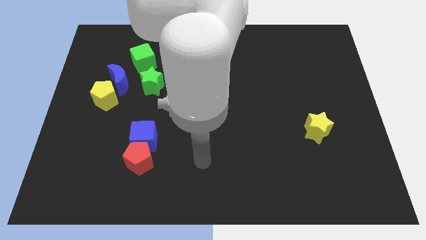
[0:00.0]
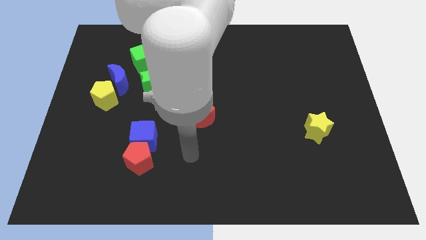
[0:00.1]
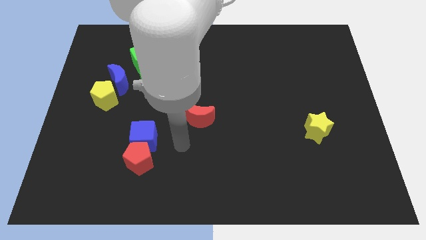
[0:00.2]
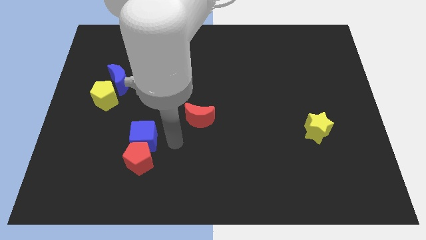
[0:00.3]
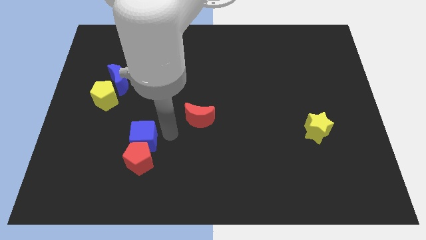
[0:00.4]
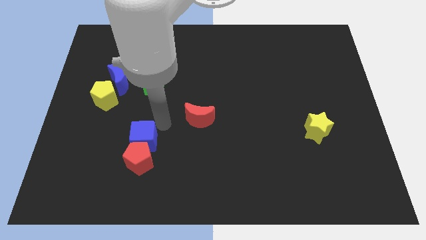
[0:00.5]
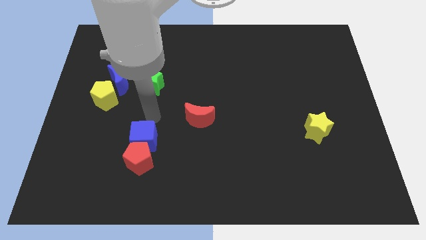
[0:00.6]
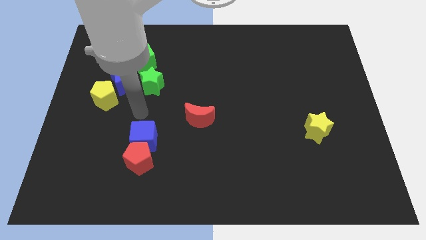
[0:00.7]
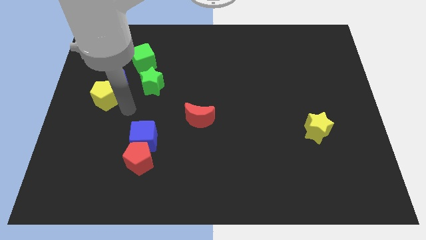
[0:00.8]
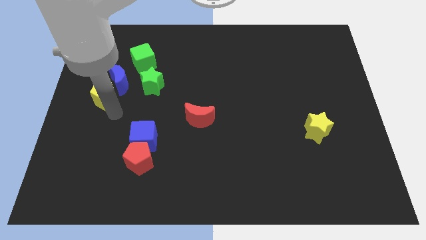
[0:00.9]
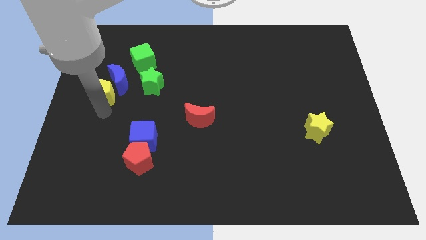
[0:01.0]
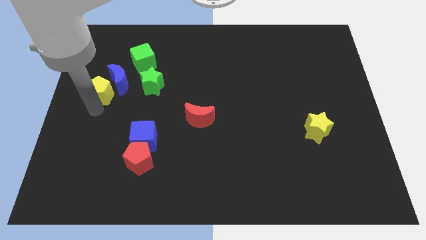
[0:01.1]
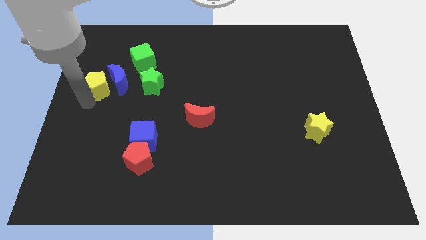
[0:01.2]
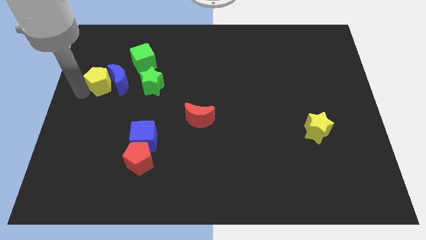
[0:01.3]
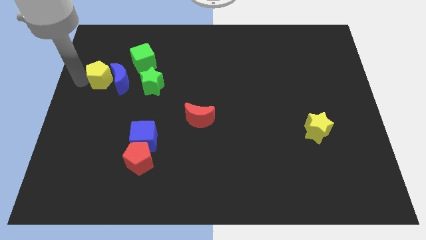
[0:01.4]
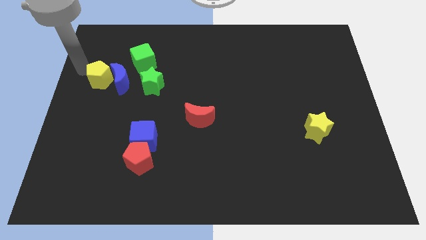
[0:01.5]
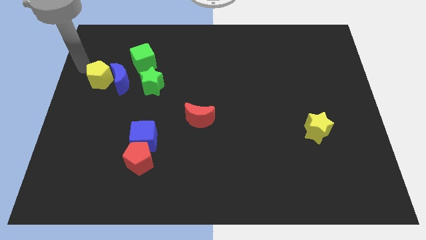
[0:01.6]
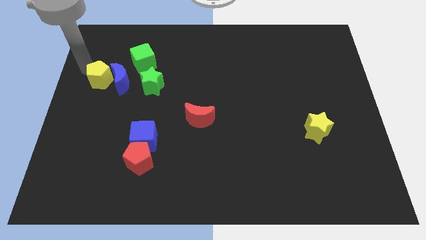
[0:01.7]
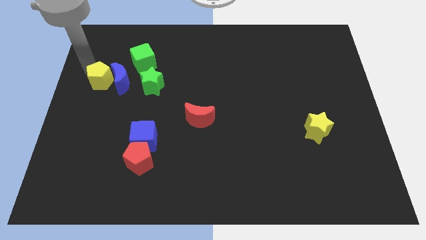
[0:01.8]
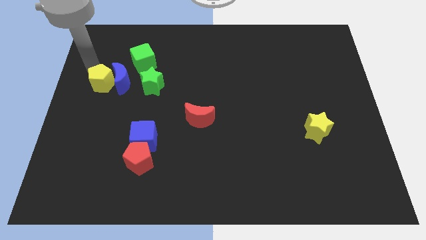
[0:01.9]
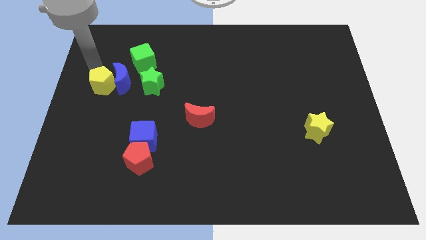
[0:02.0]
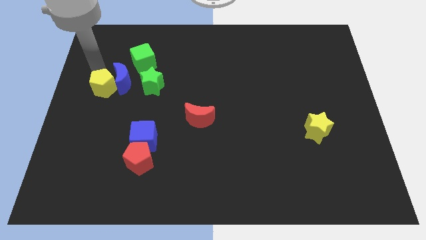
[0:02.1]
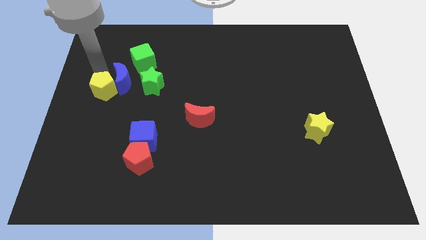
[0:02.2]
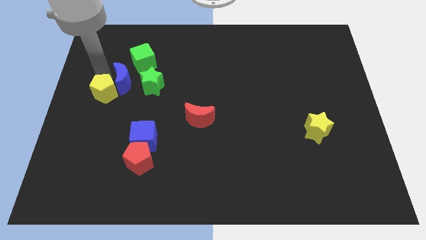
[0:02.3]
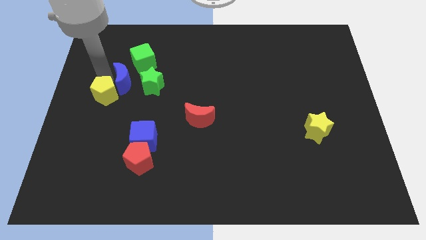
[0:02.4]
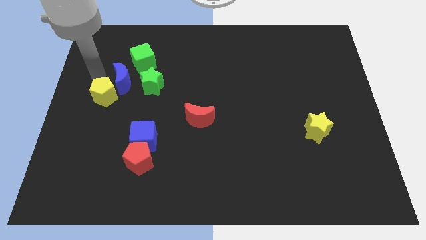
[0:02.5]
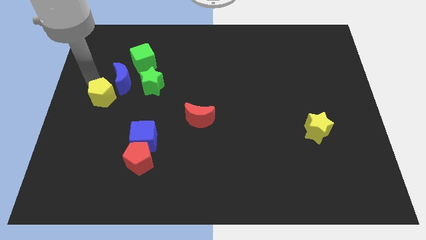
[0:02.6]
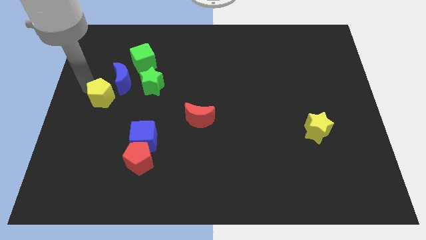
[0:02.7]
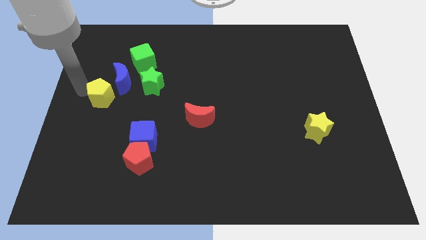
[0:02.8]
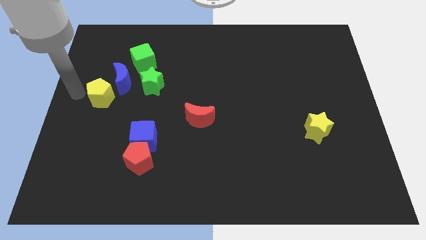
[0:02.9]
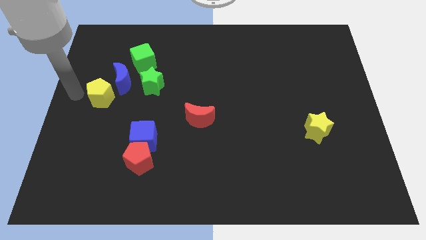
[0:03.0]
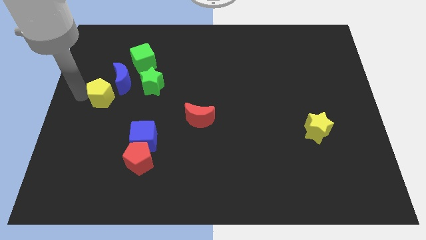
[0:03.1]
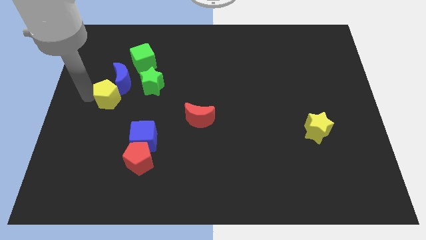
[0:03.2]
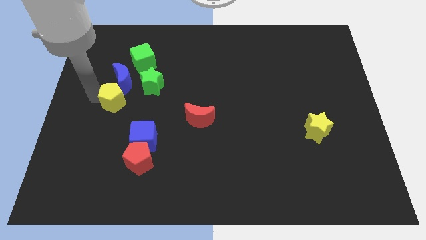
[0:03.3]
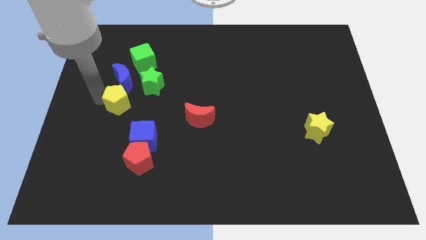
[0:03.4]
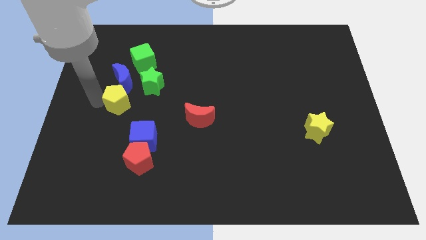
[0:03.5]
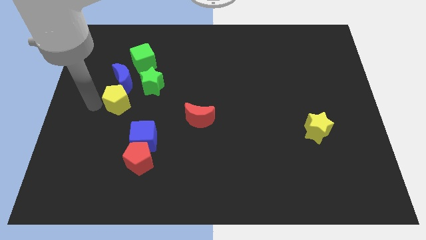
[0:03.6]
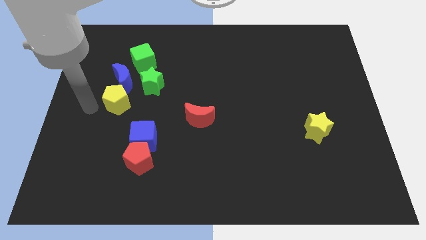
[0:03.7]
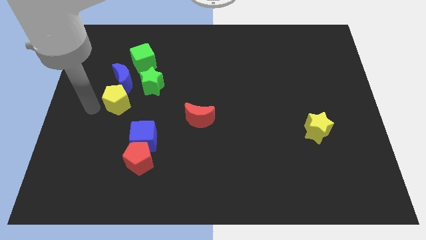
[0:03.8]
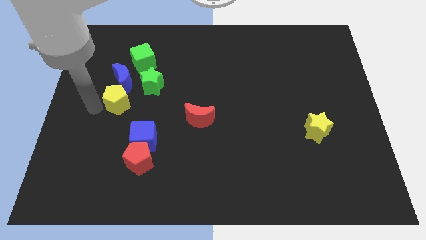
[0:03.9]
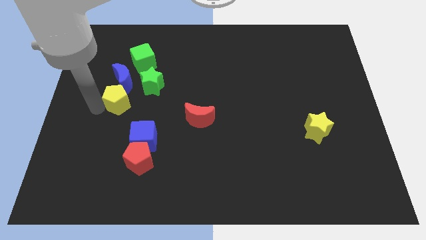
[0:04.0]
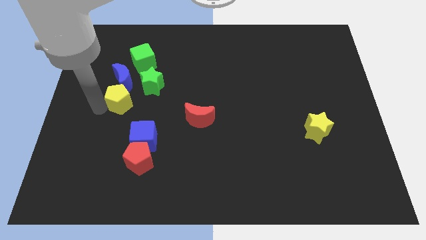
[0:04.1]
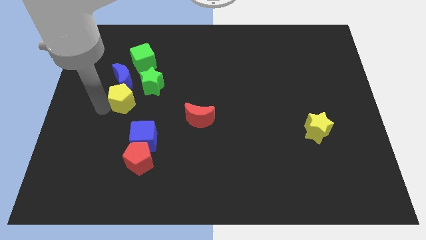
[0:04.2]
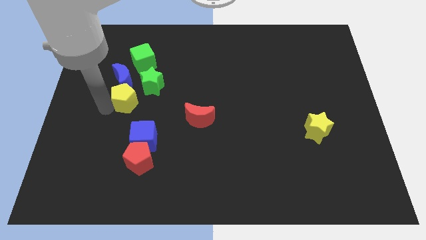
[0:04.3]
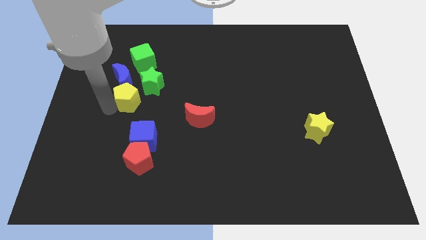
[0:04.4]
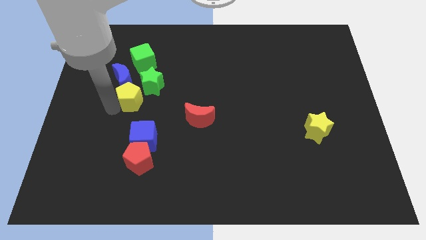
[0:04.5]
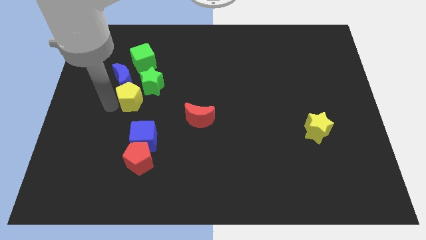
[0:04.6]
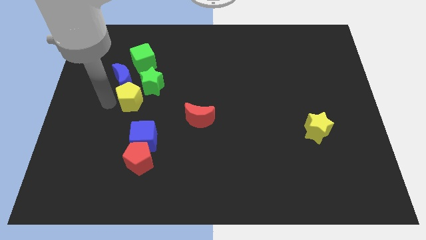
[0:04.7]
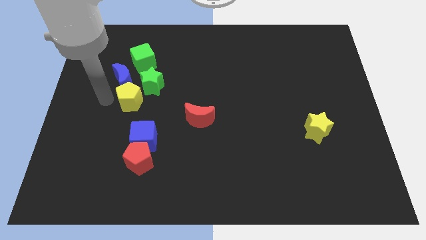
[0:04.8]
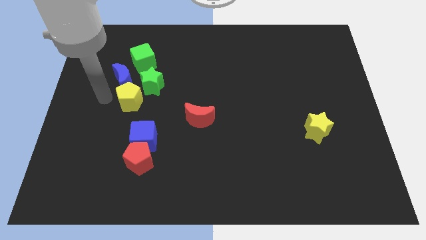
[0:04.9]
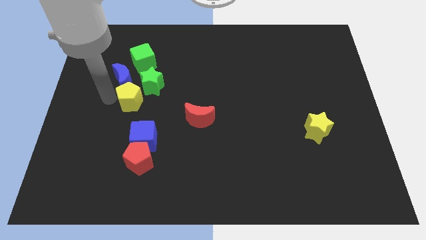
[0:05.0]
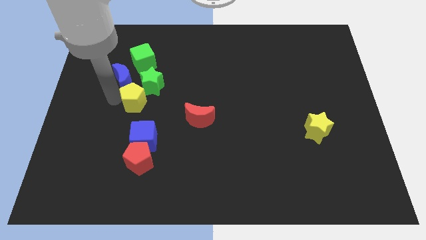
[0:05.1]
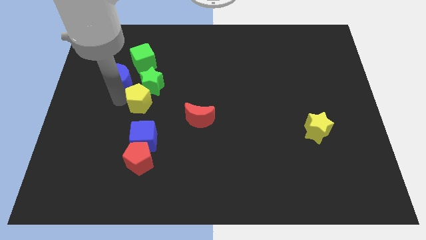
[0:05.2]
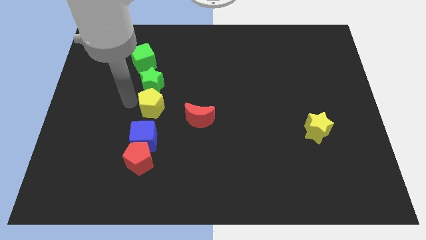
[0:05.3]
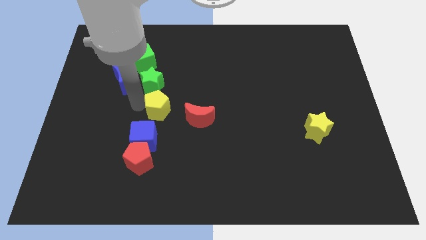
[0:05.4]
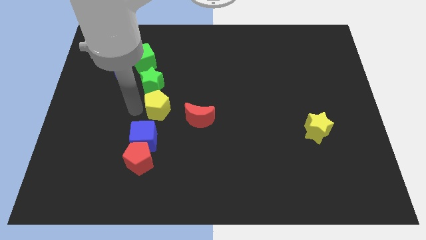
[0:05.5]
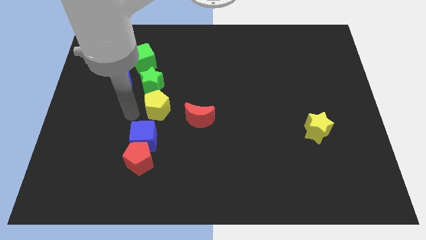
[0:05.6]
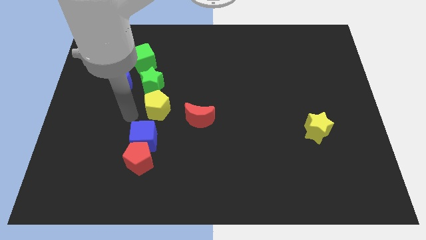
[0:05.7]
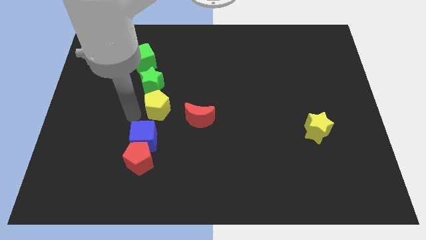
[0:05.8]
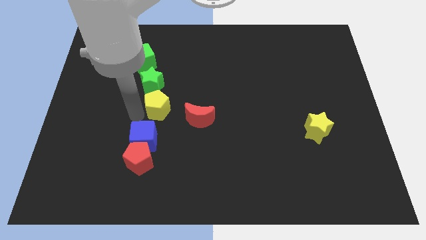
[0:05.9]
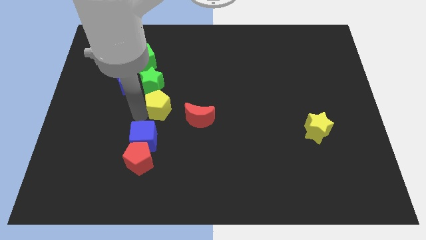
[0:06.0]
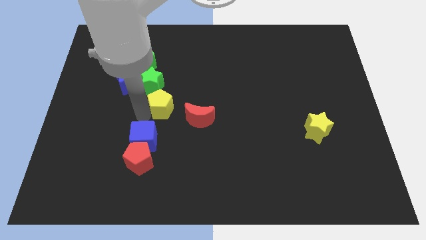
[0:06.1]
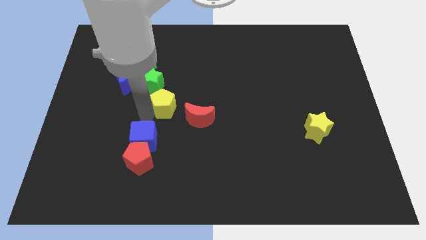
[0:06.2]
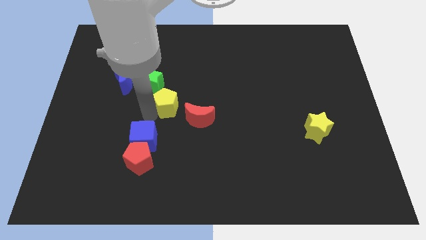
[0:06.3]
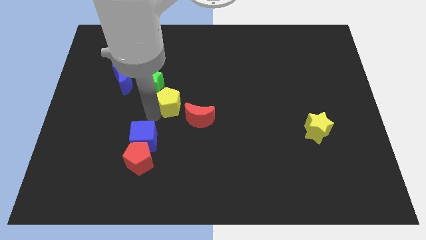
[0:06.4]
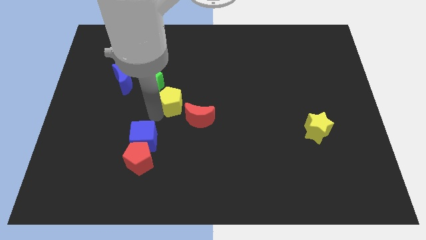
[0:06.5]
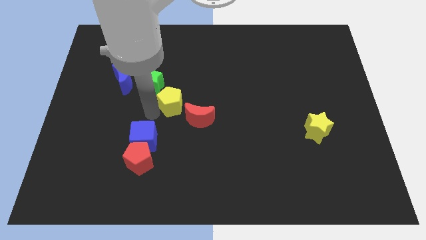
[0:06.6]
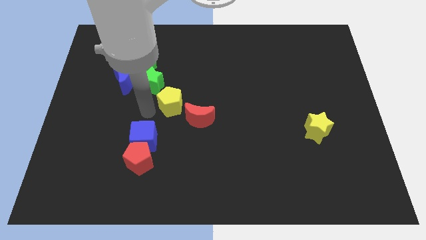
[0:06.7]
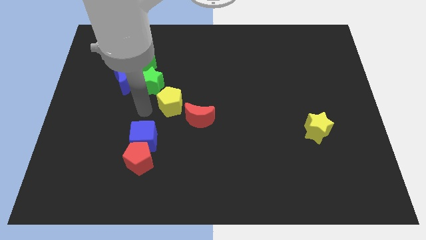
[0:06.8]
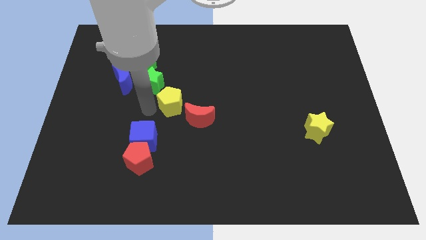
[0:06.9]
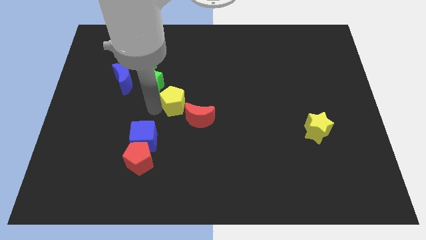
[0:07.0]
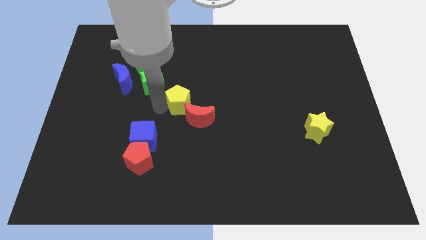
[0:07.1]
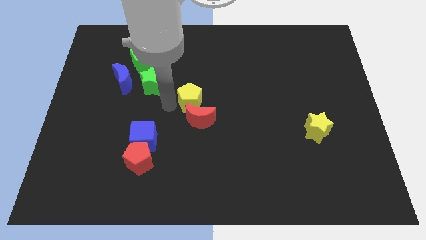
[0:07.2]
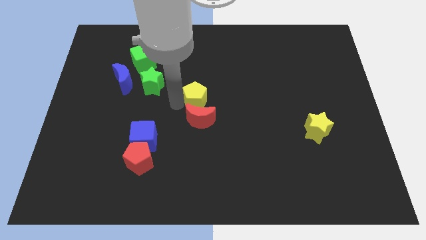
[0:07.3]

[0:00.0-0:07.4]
put the yellow pentagon diagonally up and to the right of the red moon
